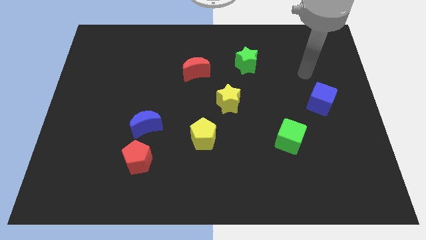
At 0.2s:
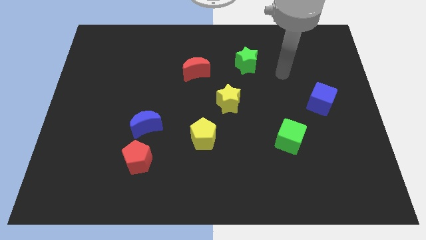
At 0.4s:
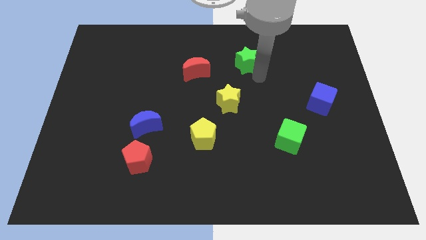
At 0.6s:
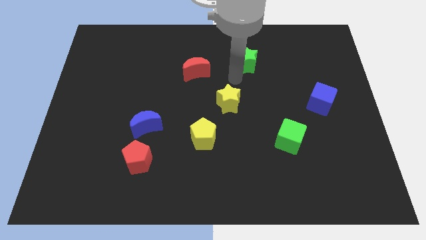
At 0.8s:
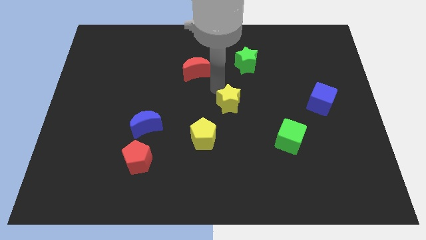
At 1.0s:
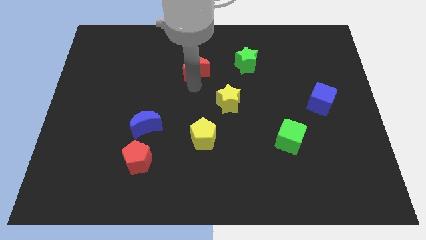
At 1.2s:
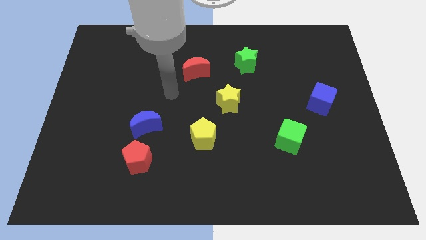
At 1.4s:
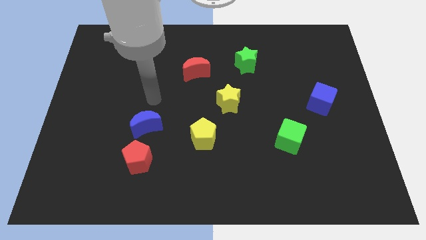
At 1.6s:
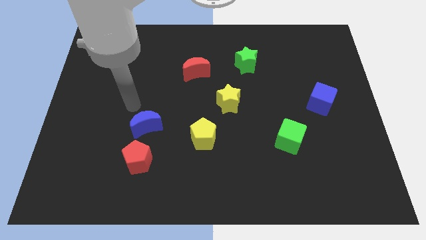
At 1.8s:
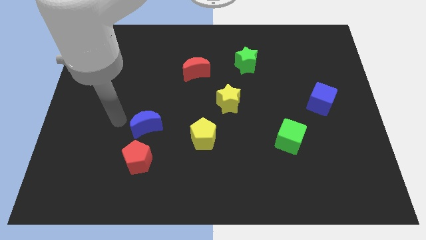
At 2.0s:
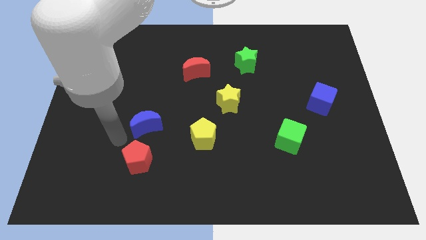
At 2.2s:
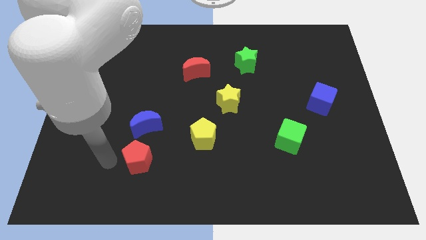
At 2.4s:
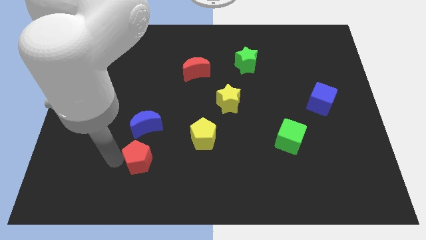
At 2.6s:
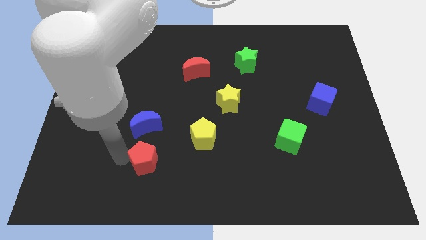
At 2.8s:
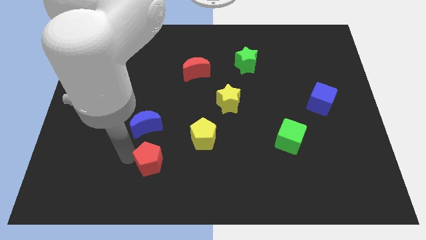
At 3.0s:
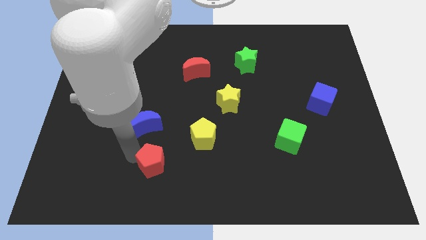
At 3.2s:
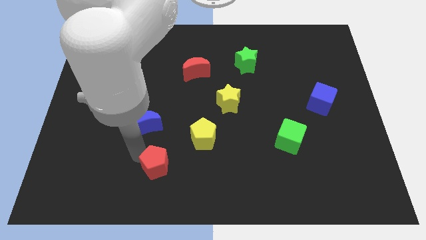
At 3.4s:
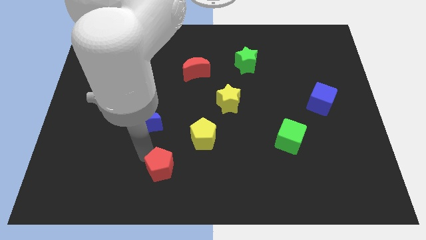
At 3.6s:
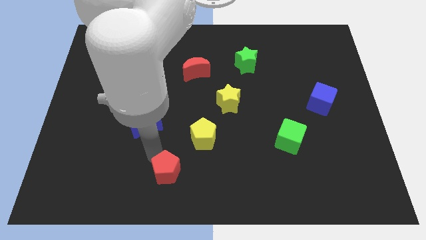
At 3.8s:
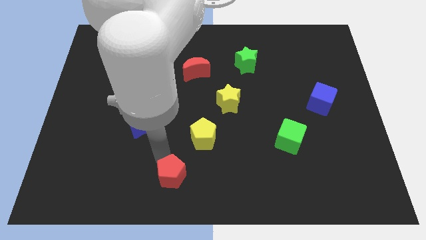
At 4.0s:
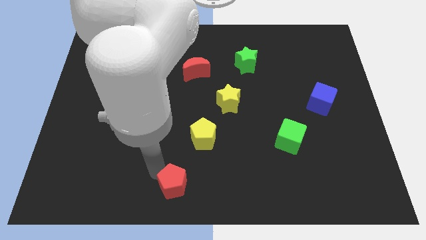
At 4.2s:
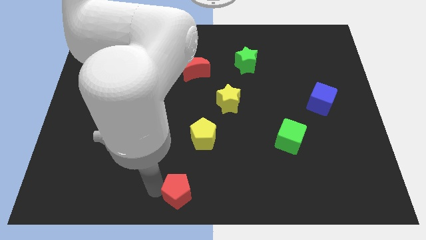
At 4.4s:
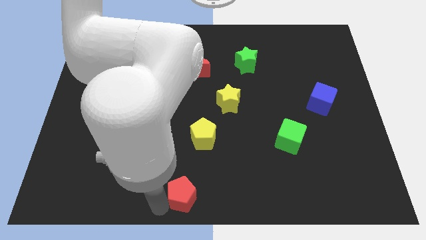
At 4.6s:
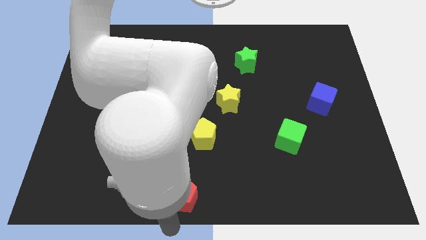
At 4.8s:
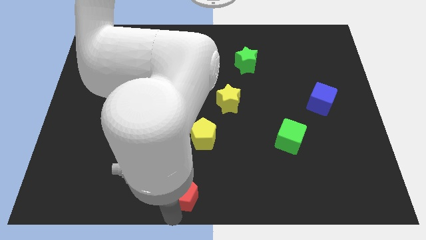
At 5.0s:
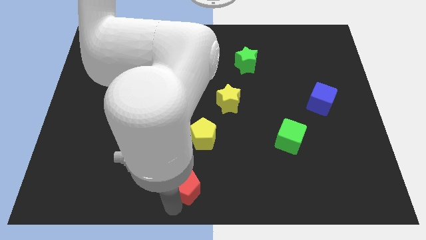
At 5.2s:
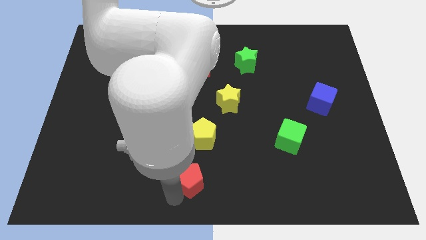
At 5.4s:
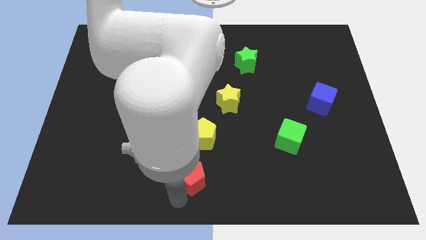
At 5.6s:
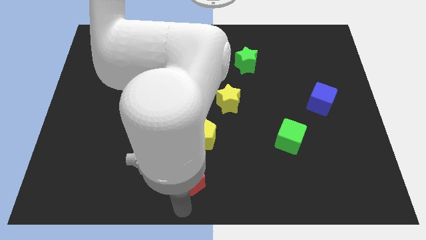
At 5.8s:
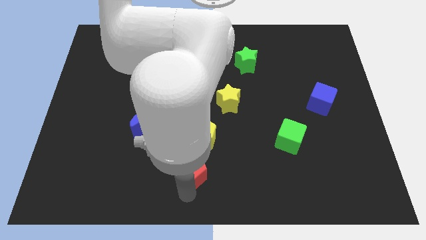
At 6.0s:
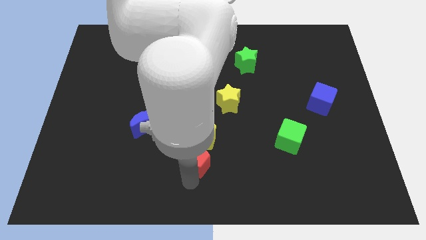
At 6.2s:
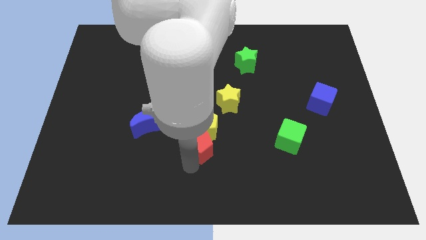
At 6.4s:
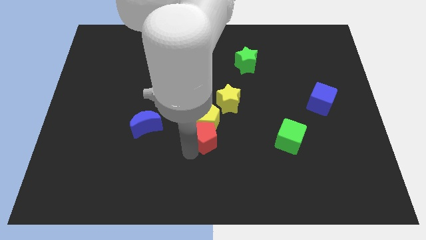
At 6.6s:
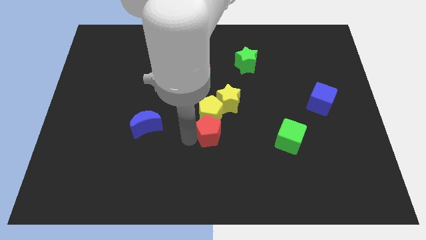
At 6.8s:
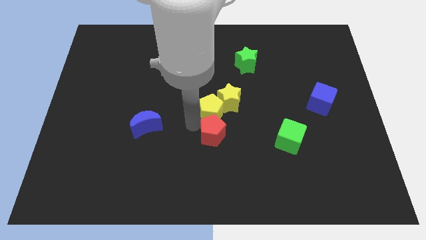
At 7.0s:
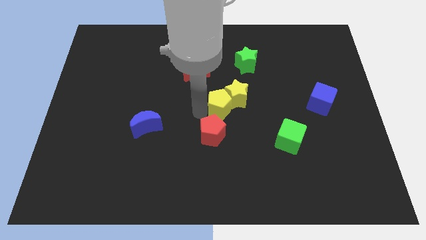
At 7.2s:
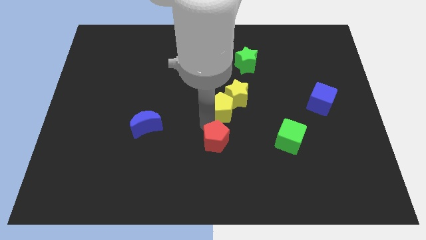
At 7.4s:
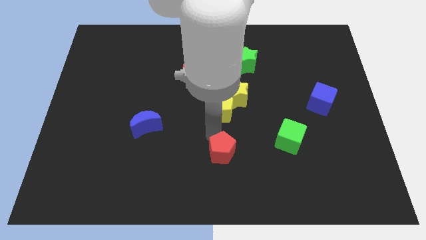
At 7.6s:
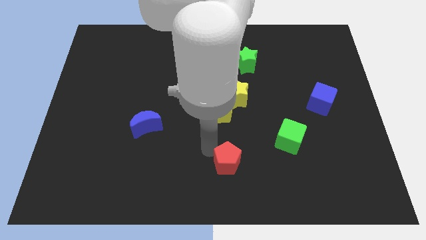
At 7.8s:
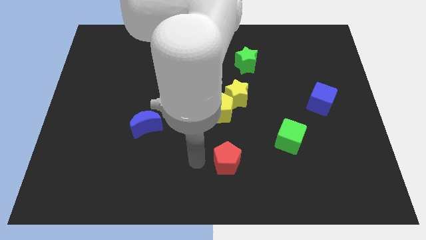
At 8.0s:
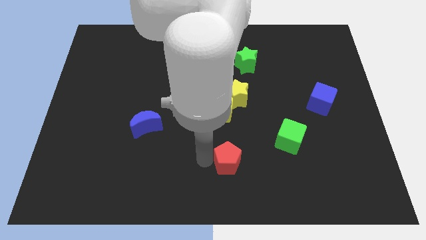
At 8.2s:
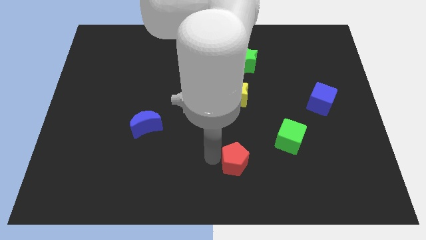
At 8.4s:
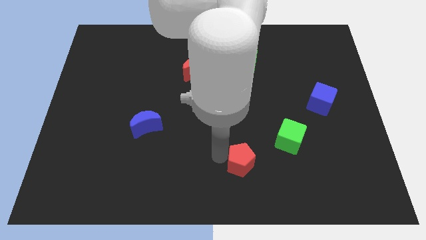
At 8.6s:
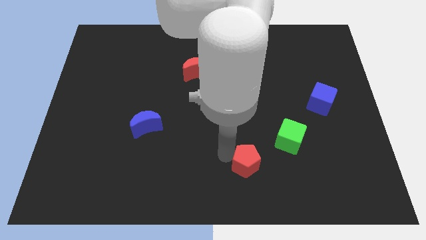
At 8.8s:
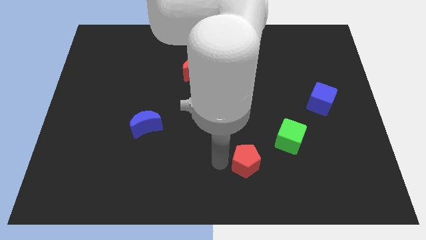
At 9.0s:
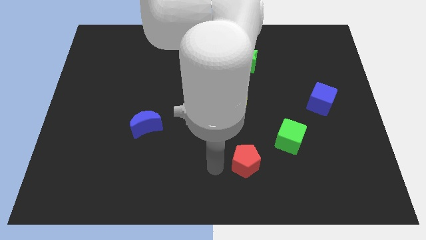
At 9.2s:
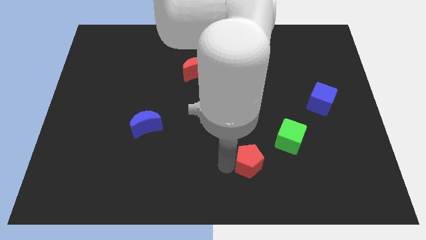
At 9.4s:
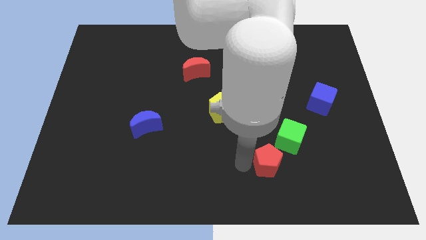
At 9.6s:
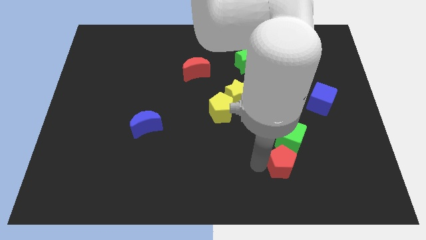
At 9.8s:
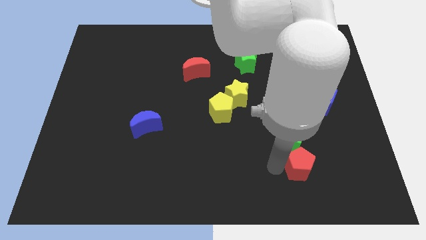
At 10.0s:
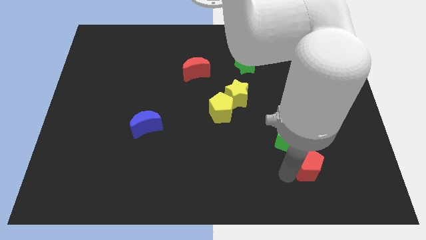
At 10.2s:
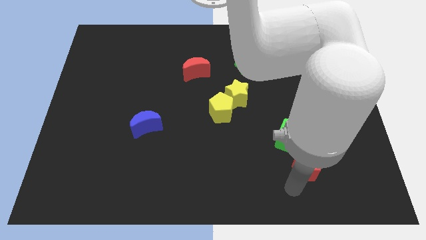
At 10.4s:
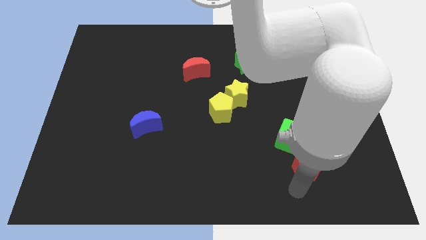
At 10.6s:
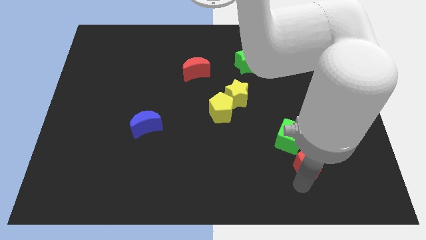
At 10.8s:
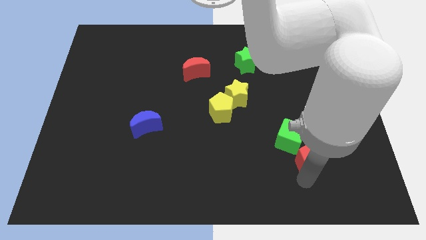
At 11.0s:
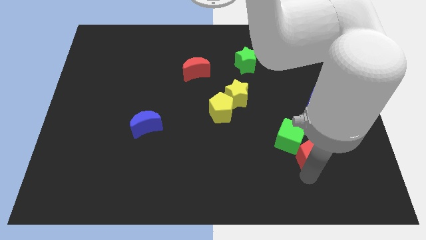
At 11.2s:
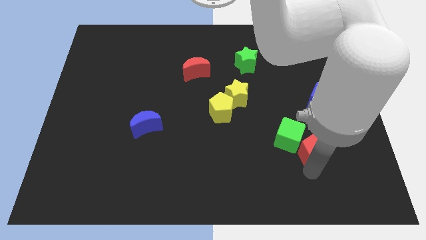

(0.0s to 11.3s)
push the red pentagon to the bottom of the blue cube

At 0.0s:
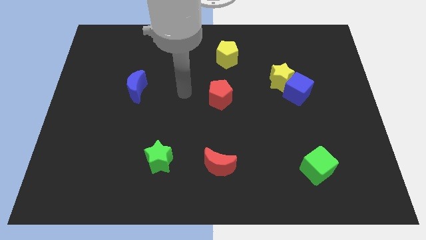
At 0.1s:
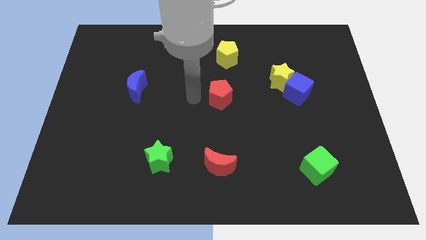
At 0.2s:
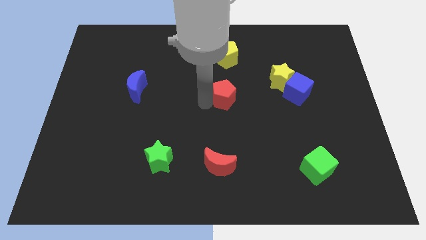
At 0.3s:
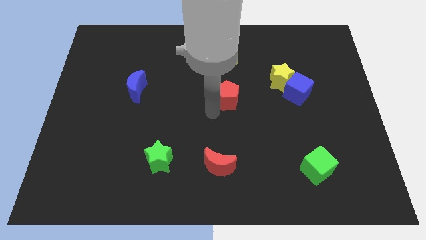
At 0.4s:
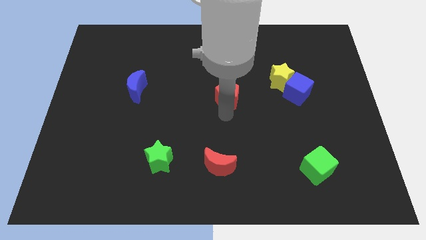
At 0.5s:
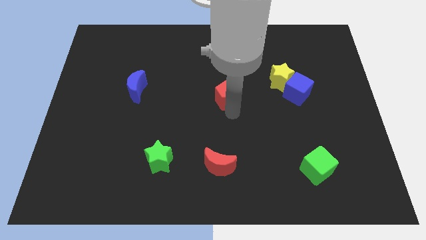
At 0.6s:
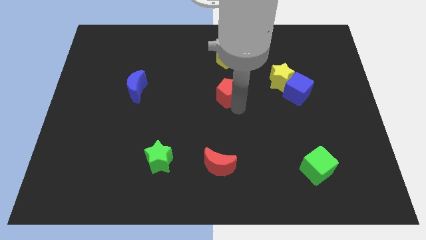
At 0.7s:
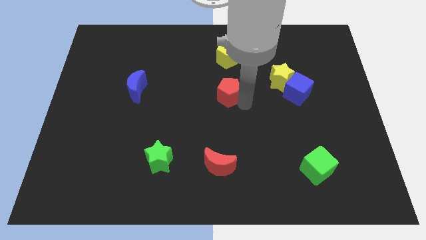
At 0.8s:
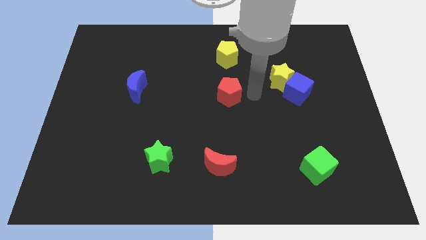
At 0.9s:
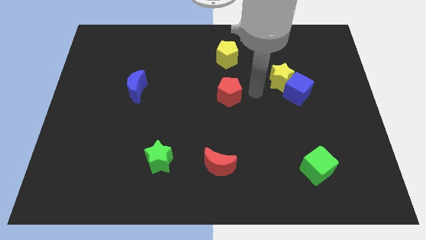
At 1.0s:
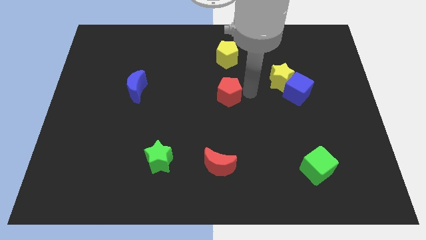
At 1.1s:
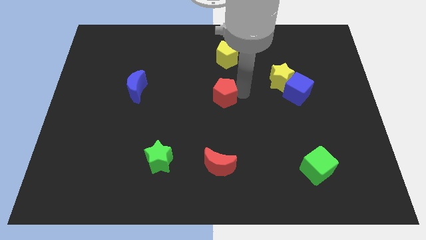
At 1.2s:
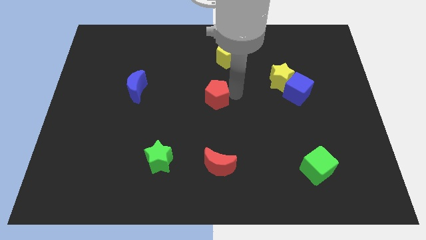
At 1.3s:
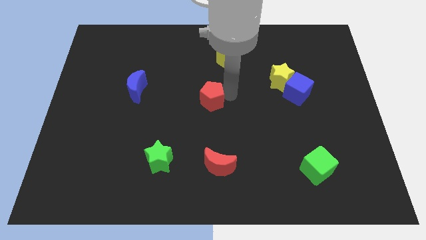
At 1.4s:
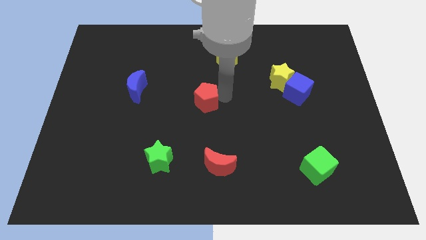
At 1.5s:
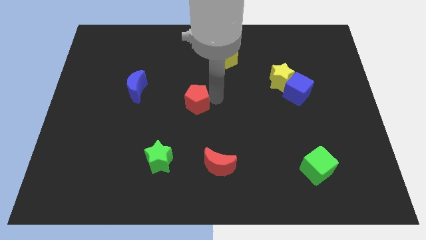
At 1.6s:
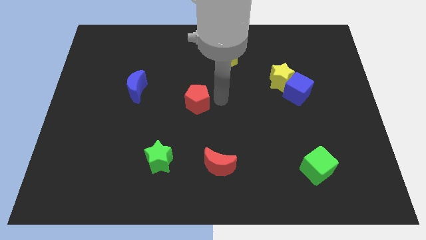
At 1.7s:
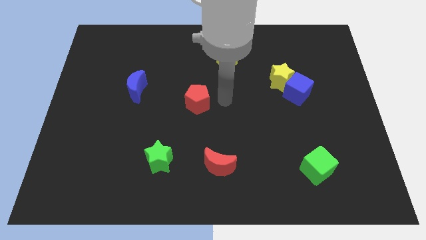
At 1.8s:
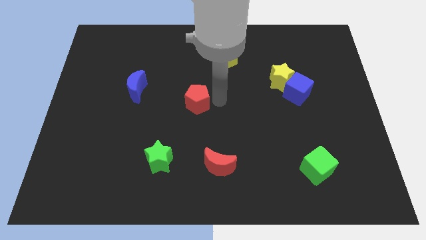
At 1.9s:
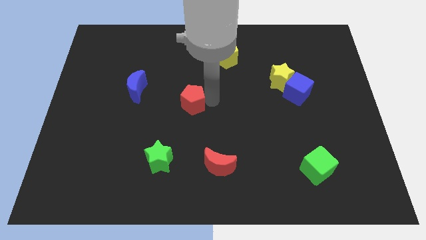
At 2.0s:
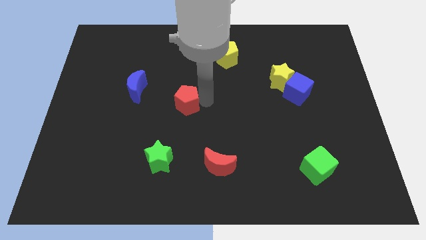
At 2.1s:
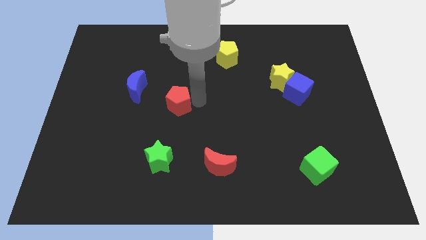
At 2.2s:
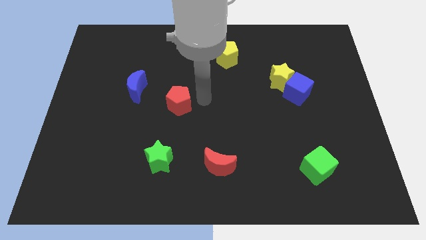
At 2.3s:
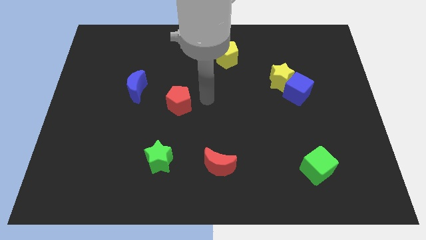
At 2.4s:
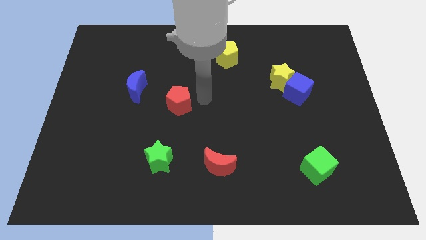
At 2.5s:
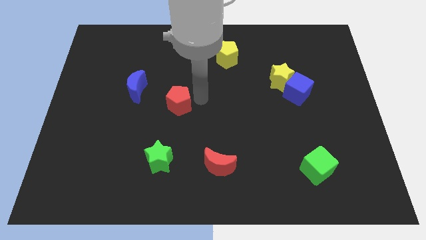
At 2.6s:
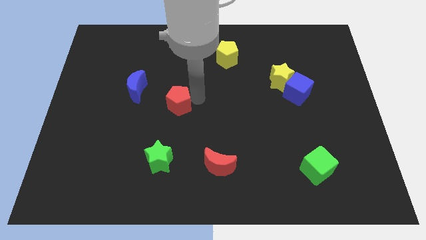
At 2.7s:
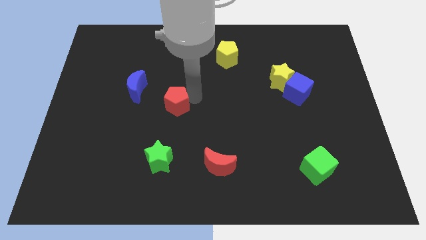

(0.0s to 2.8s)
push the red pentagon diagonally down and to the right of the blue moon
